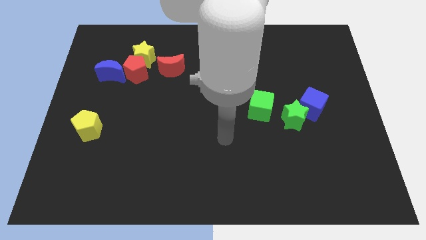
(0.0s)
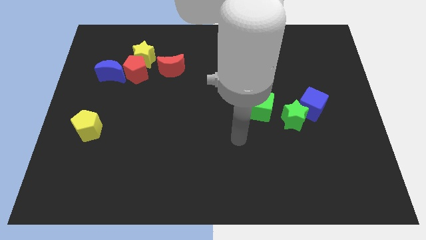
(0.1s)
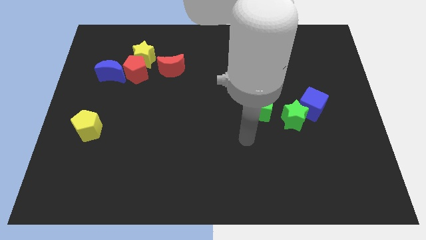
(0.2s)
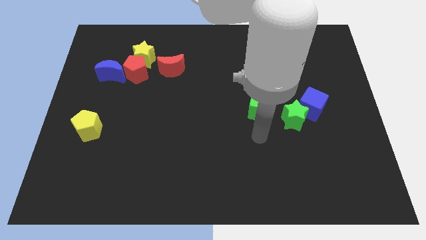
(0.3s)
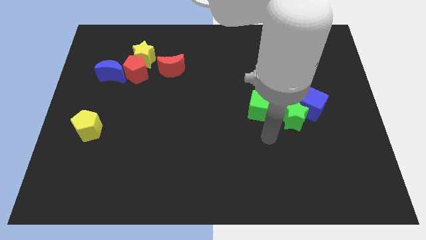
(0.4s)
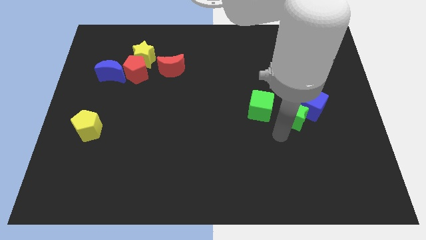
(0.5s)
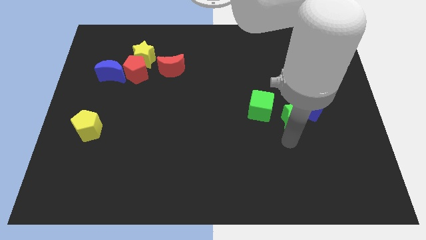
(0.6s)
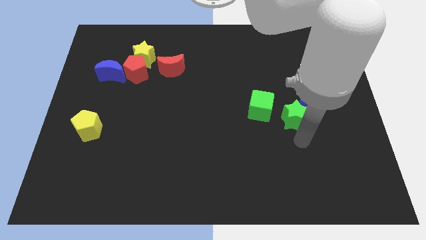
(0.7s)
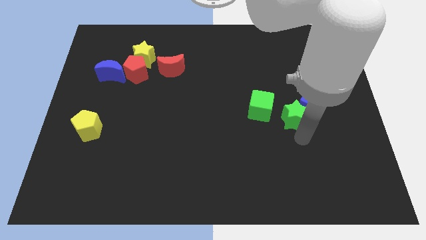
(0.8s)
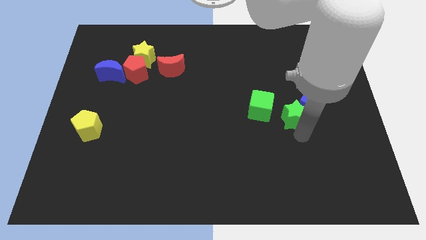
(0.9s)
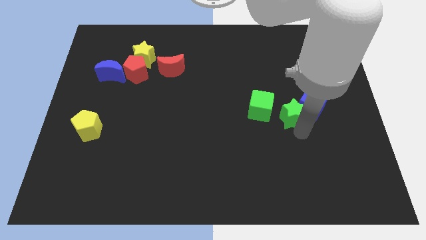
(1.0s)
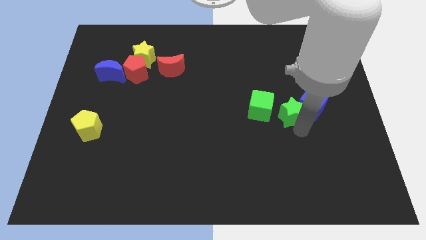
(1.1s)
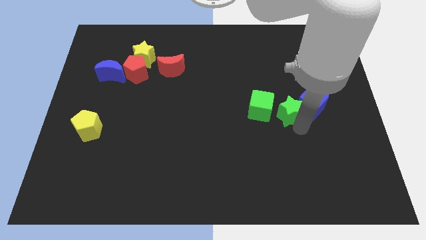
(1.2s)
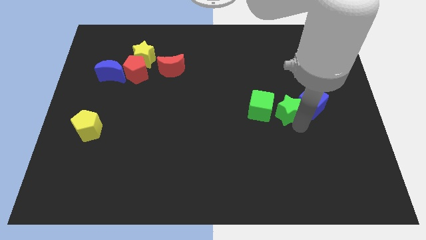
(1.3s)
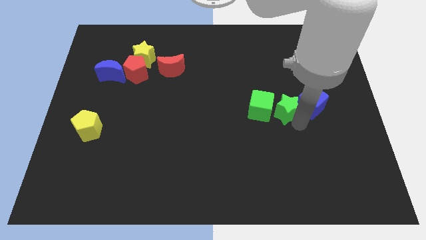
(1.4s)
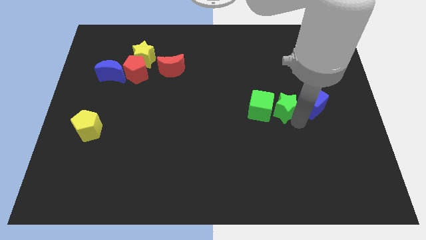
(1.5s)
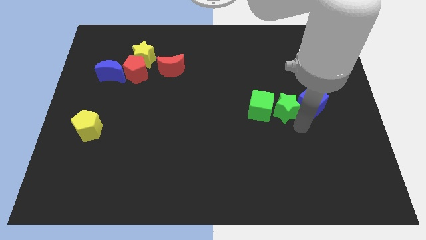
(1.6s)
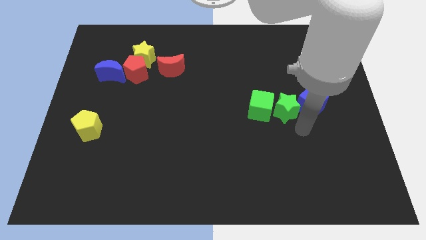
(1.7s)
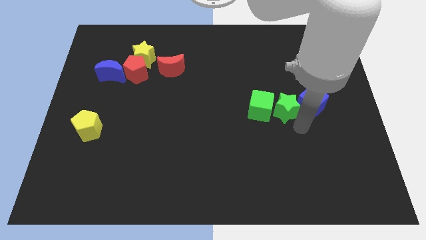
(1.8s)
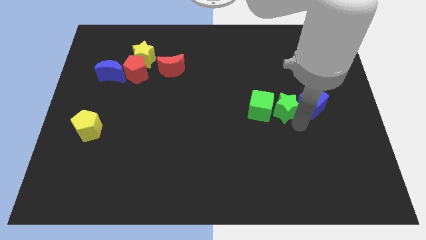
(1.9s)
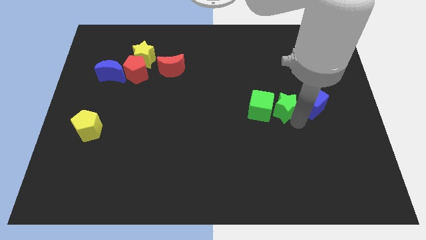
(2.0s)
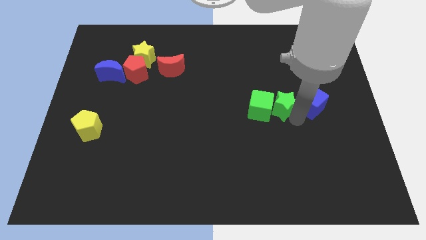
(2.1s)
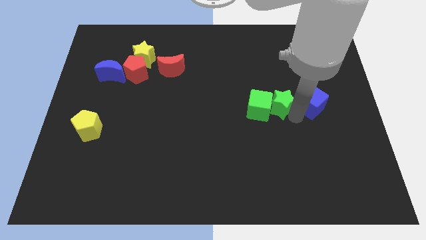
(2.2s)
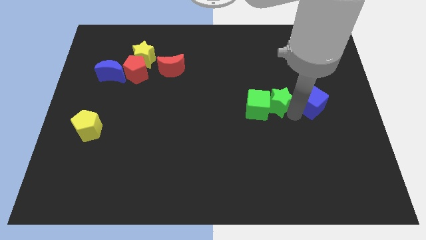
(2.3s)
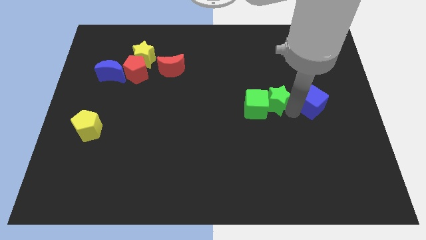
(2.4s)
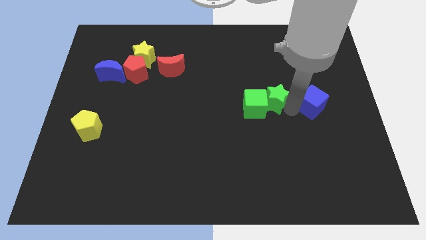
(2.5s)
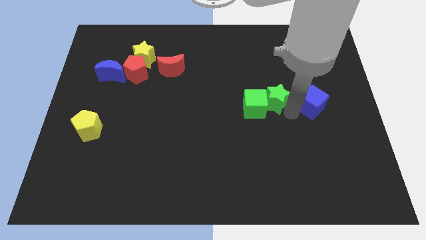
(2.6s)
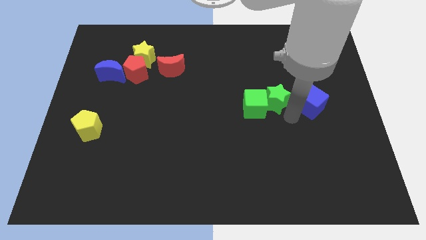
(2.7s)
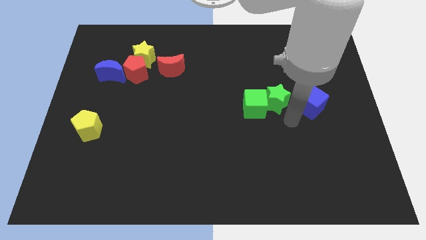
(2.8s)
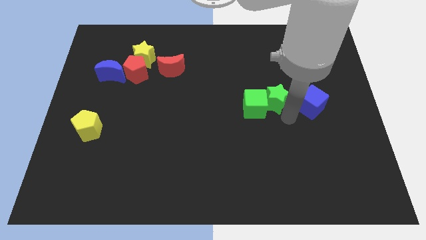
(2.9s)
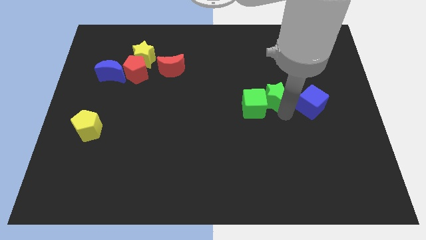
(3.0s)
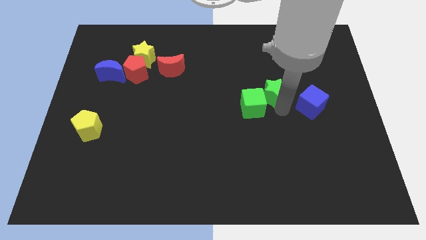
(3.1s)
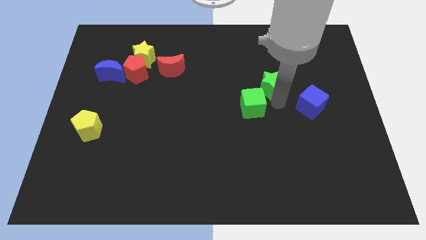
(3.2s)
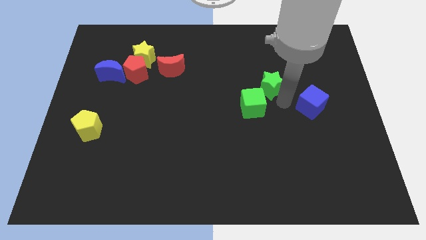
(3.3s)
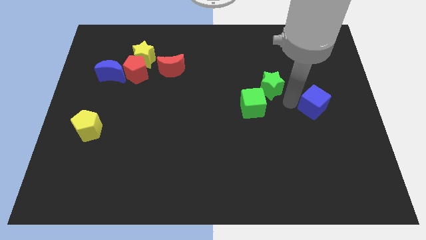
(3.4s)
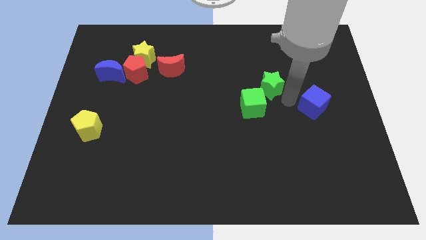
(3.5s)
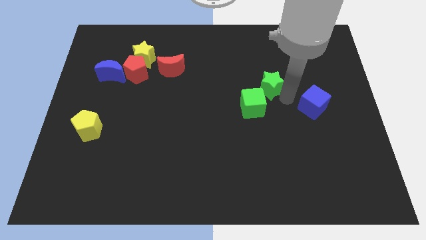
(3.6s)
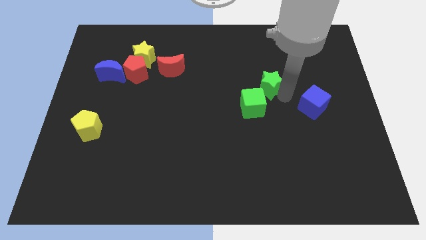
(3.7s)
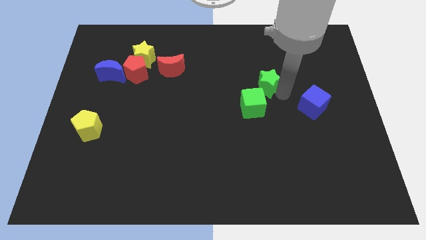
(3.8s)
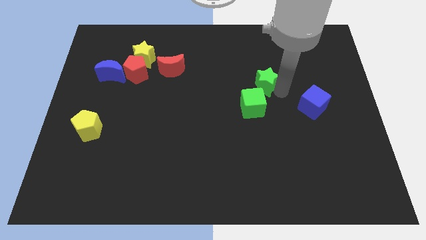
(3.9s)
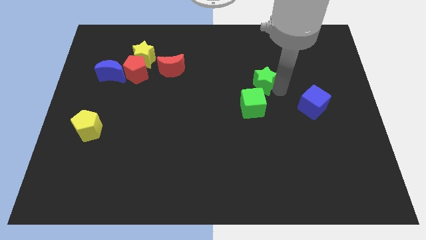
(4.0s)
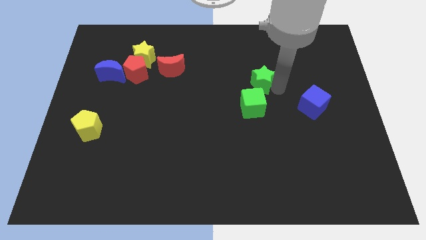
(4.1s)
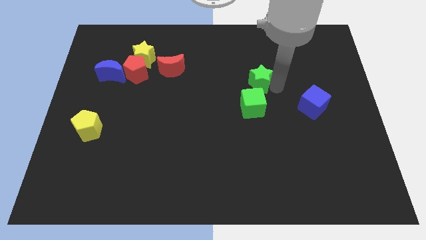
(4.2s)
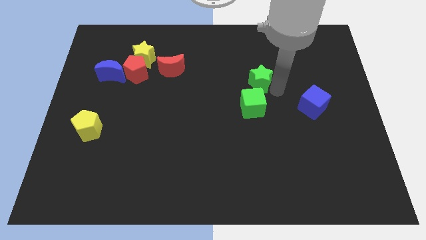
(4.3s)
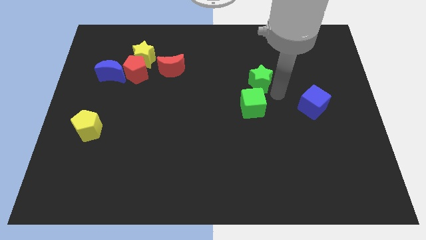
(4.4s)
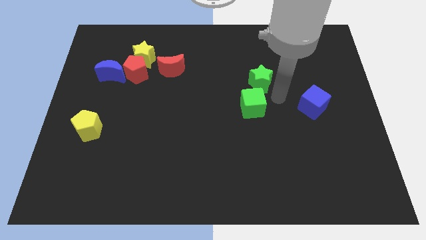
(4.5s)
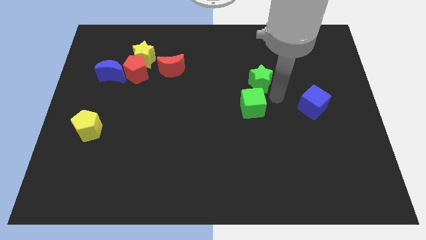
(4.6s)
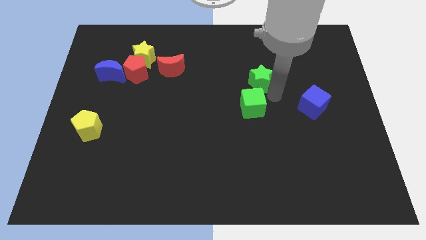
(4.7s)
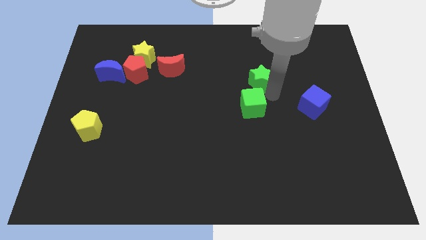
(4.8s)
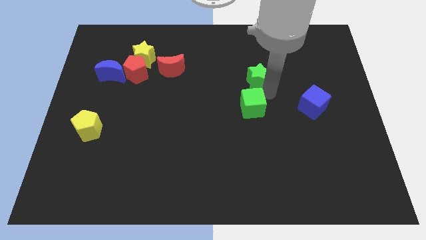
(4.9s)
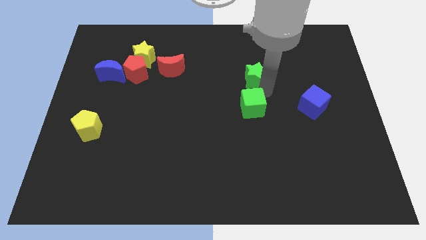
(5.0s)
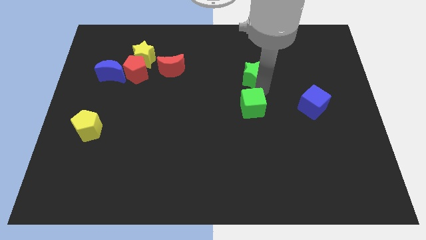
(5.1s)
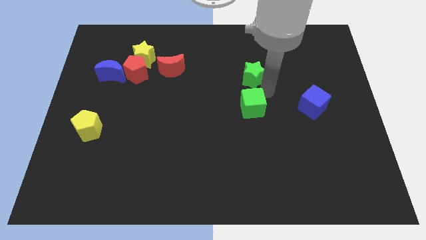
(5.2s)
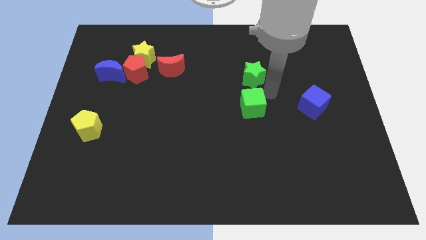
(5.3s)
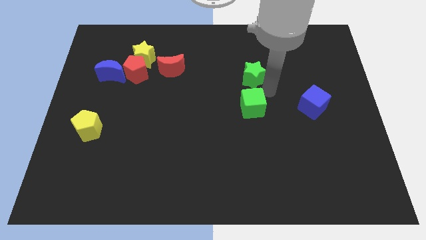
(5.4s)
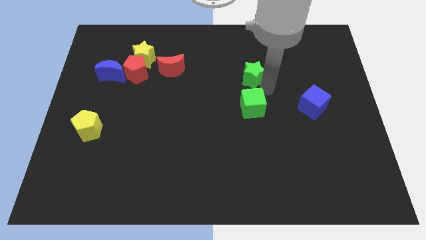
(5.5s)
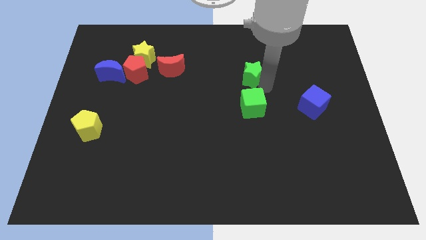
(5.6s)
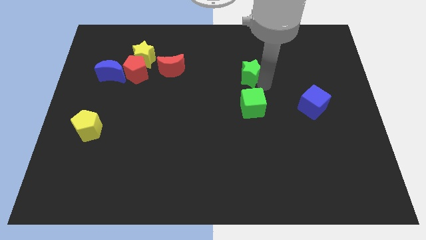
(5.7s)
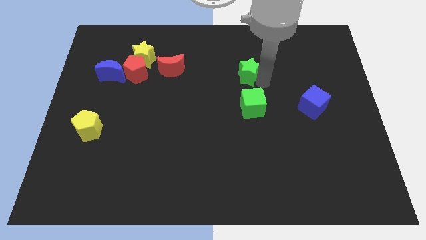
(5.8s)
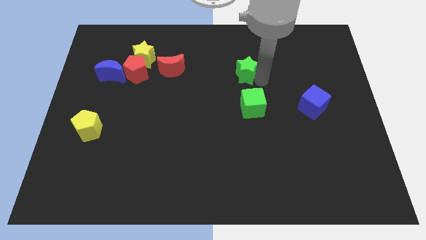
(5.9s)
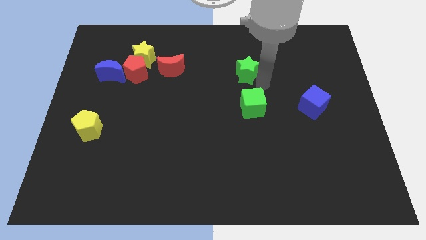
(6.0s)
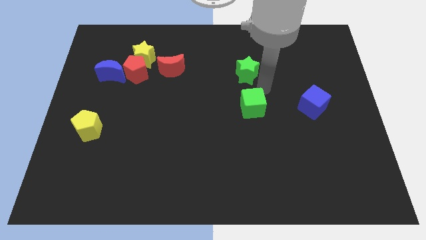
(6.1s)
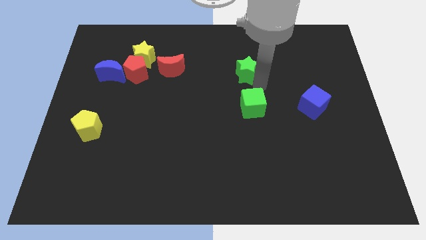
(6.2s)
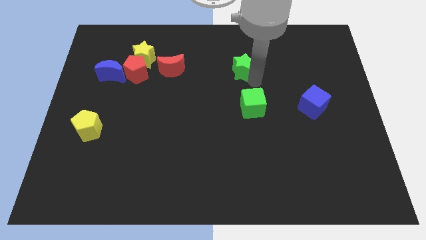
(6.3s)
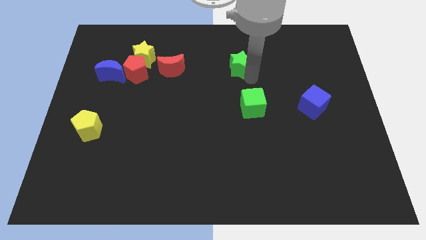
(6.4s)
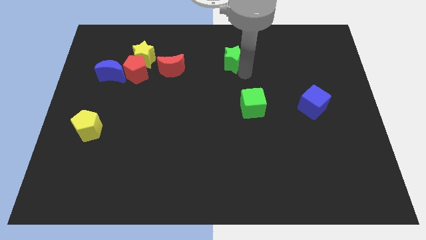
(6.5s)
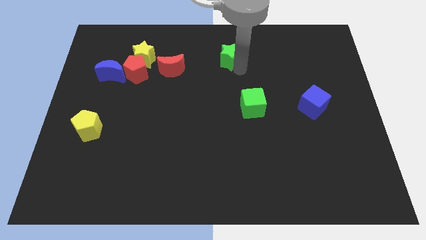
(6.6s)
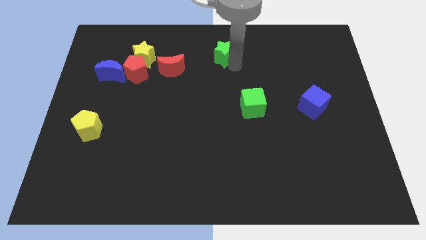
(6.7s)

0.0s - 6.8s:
move the green star to the top
